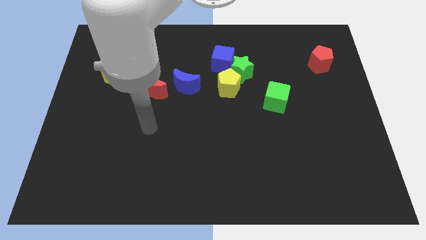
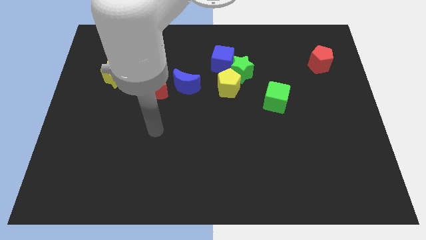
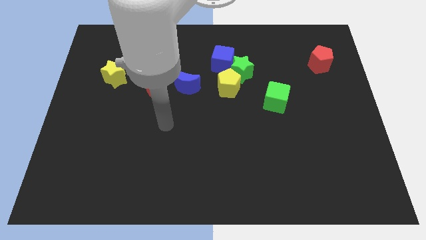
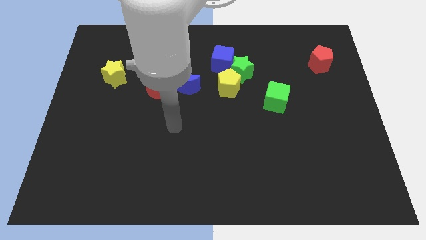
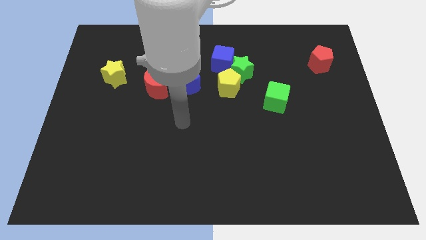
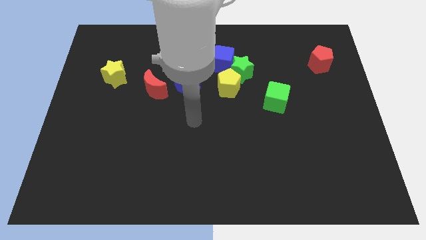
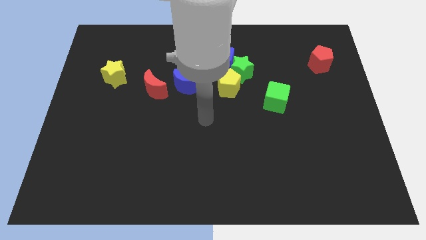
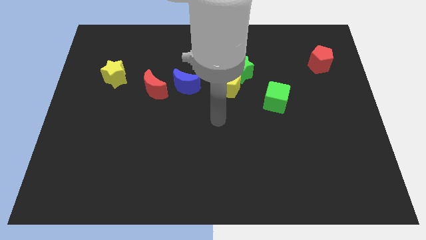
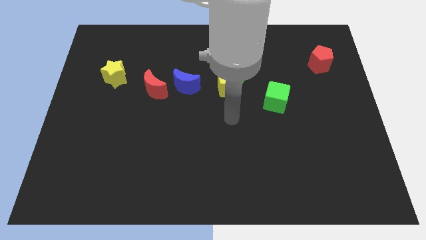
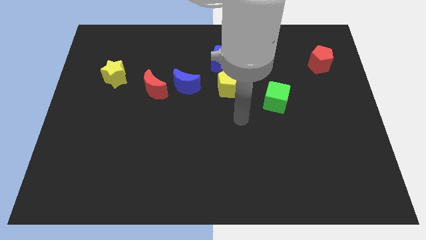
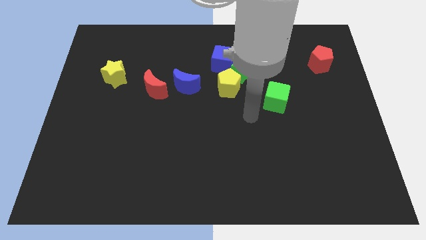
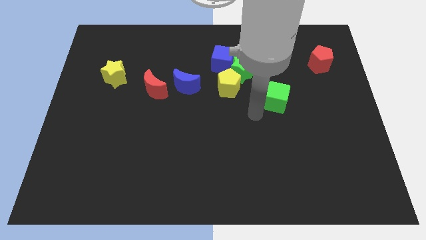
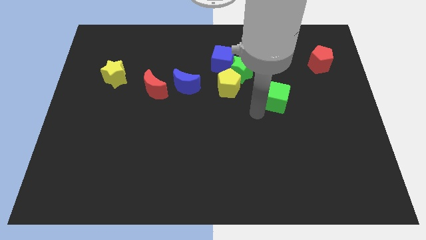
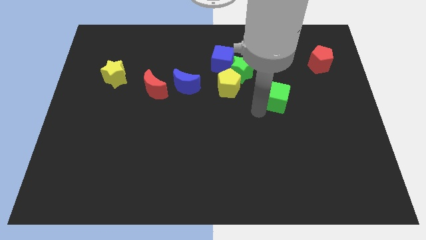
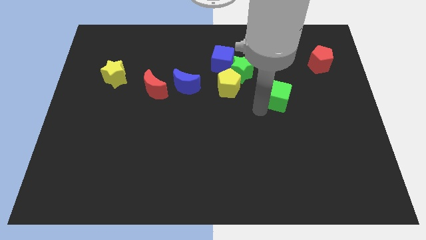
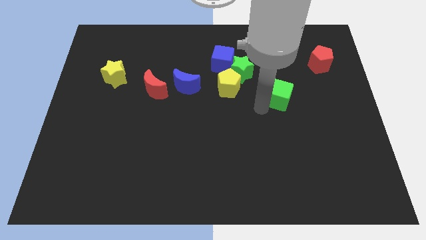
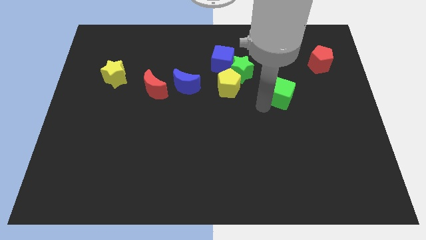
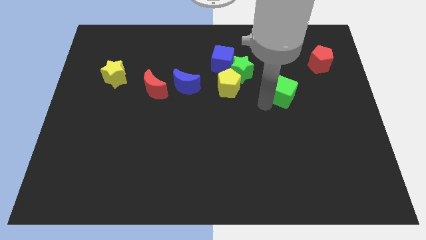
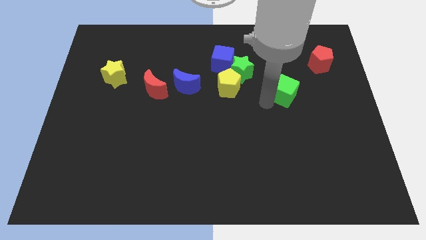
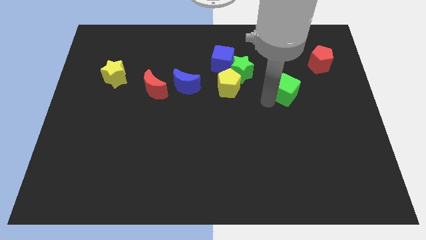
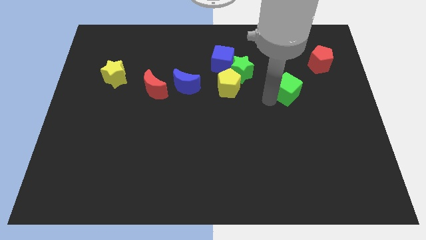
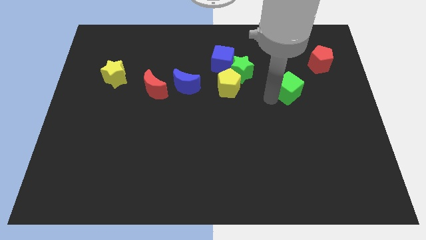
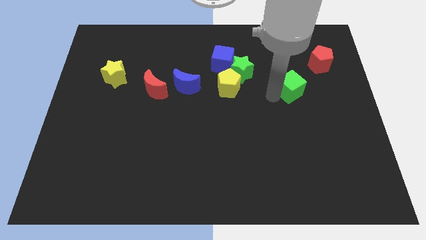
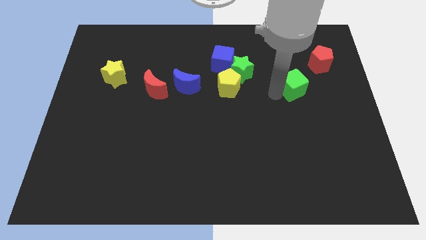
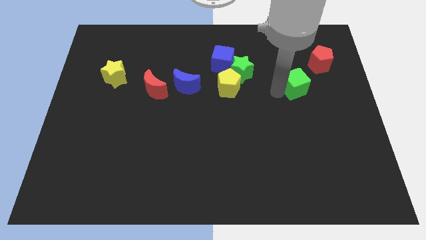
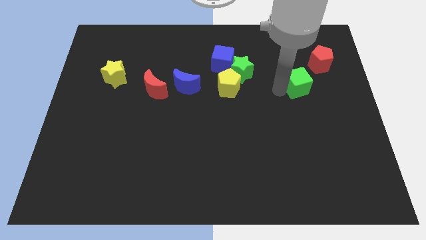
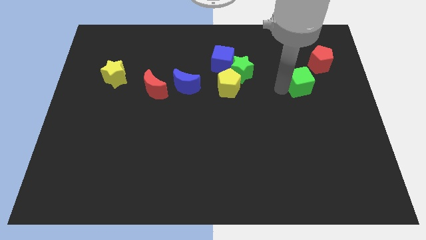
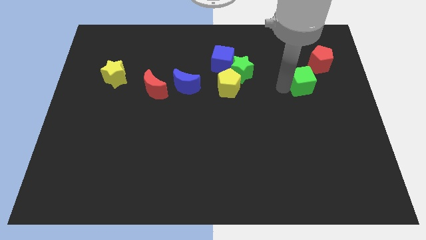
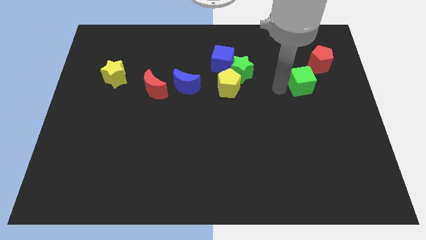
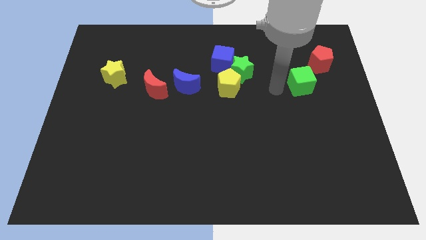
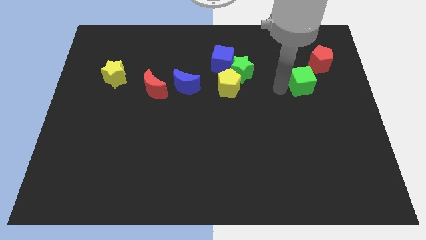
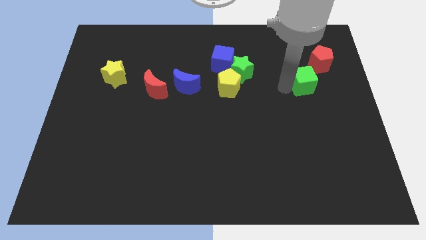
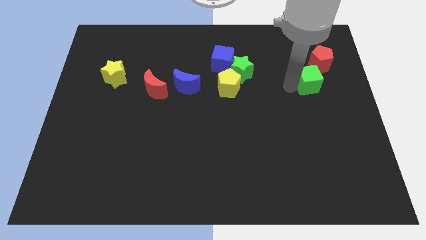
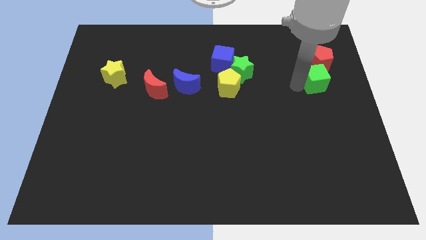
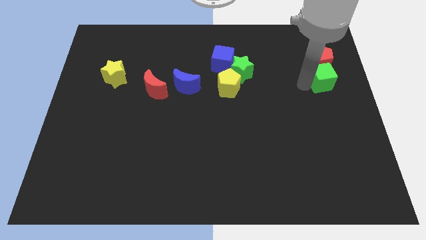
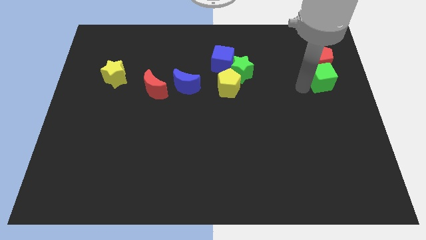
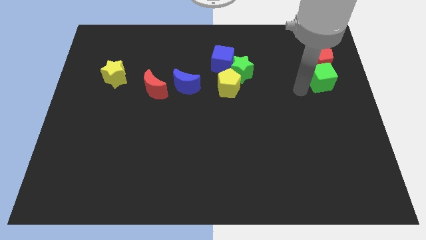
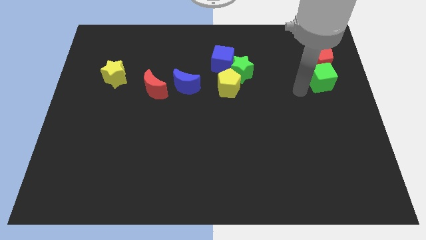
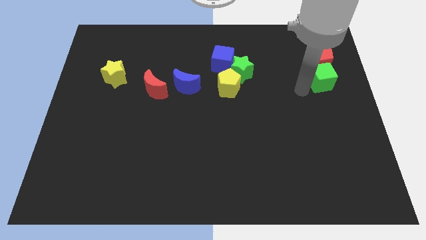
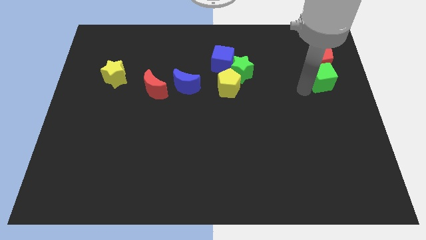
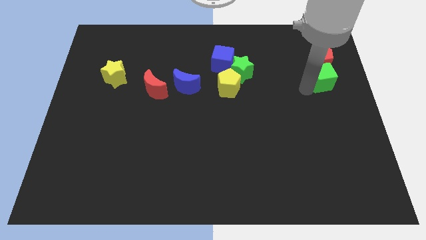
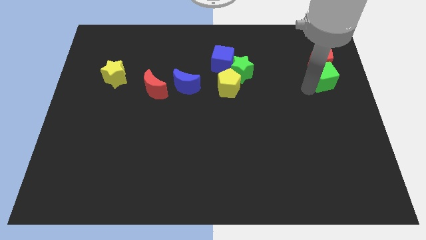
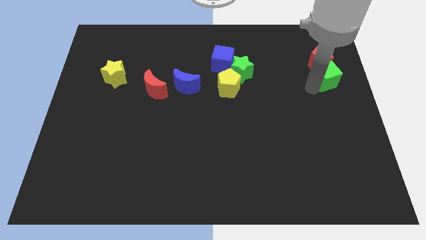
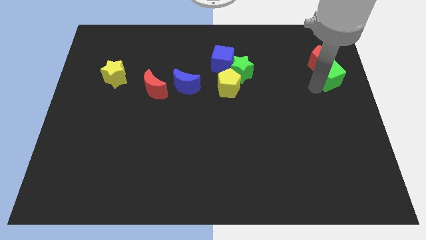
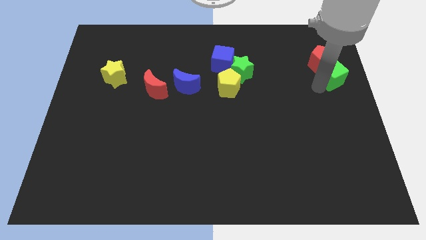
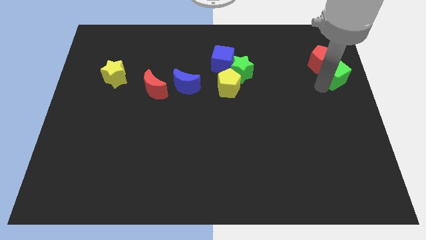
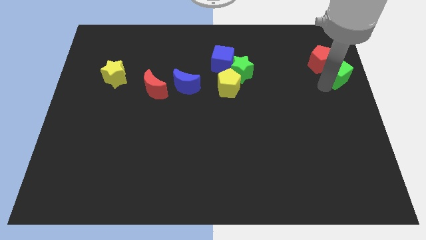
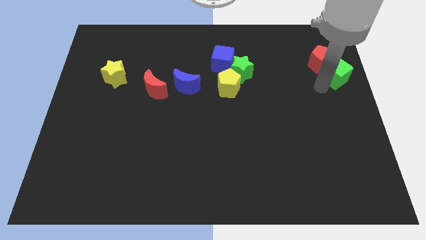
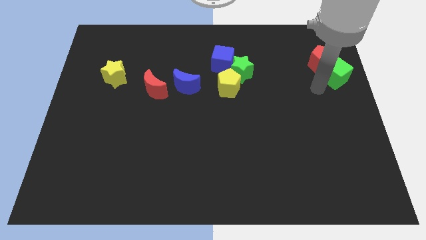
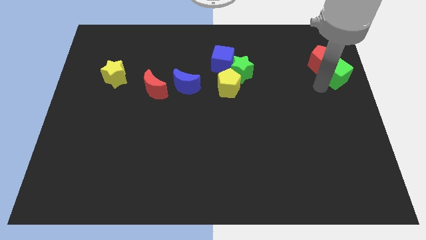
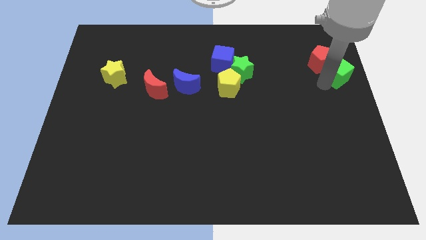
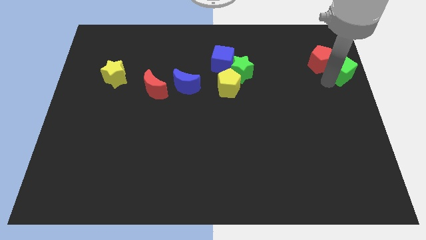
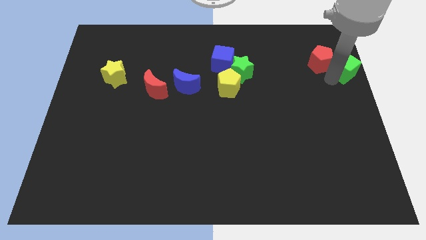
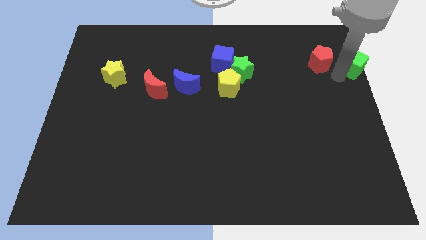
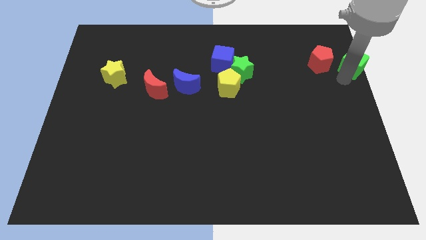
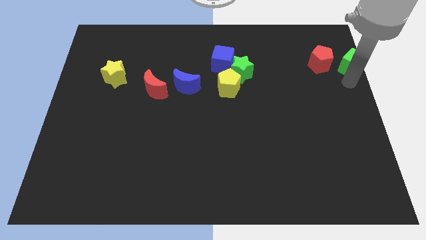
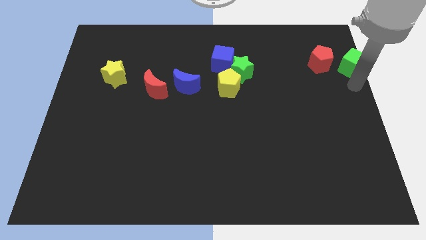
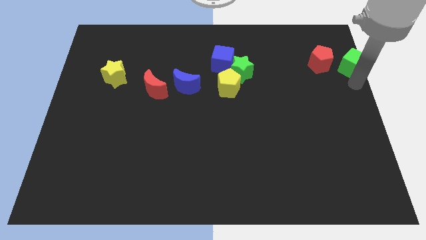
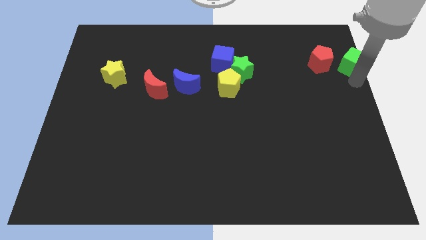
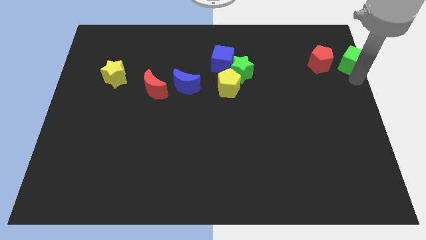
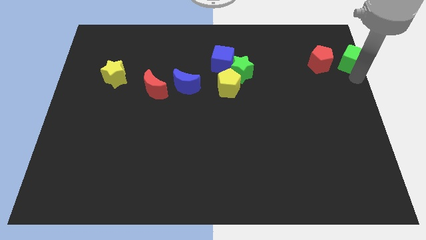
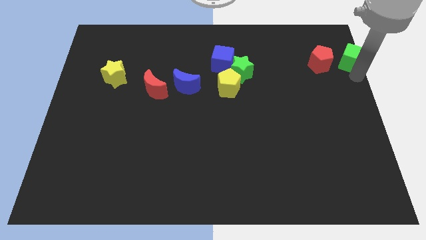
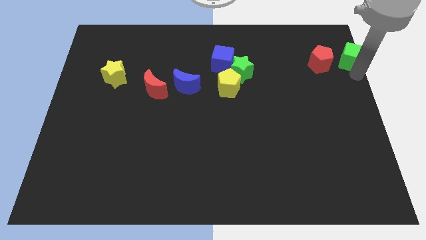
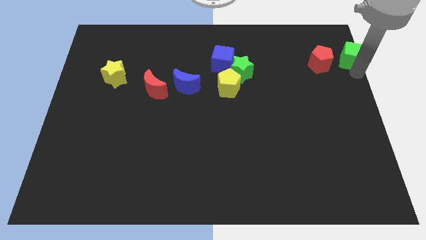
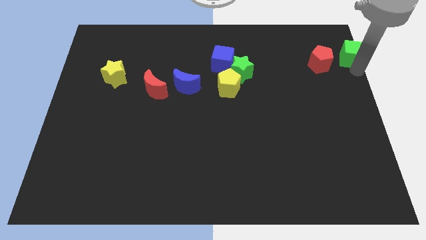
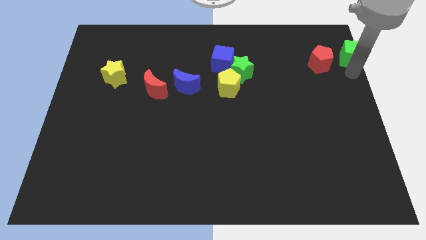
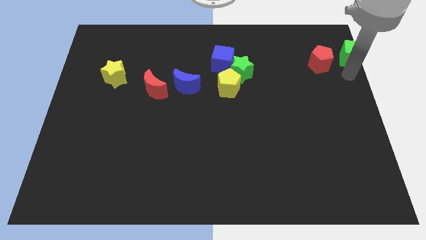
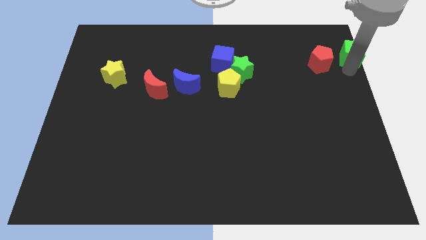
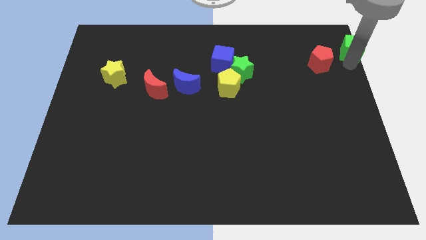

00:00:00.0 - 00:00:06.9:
move the green cube to the top right corner
